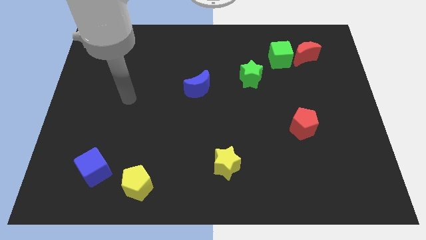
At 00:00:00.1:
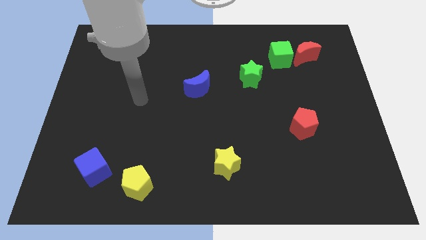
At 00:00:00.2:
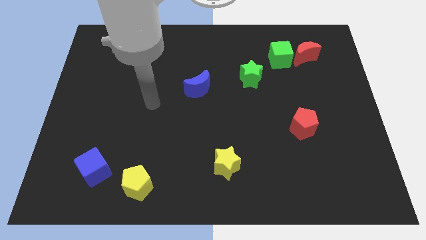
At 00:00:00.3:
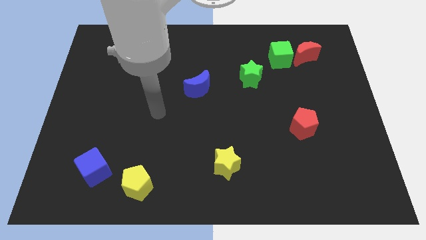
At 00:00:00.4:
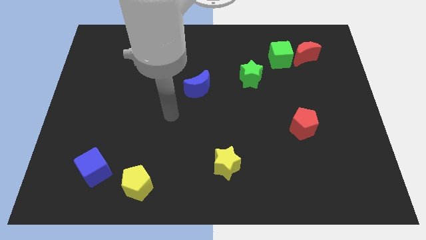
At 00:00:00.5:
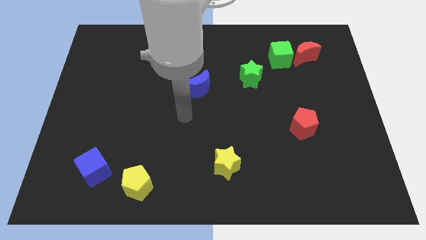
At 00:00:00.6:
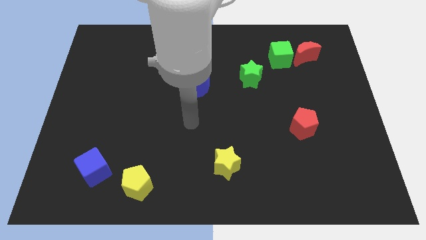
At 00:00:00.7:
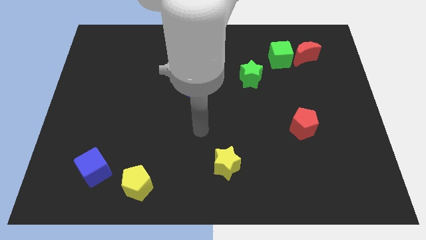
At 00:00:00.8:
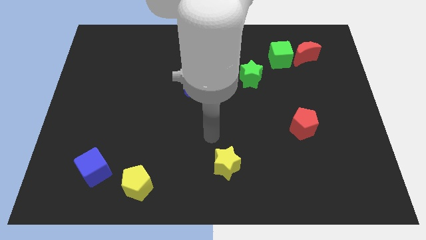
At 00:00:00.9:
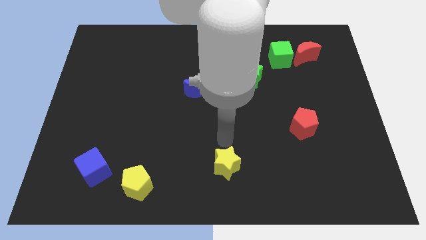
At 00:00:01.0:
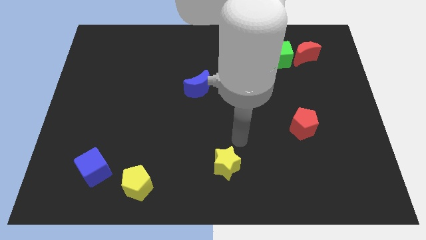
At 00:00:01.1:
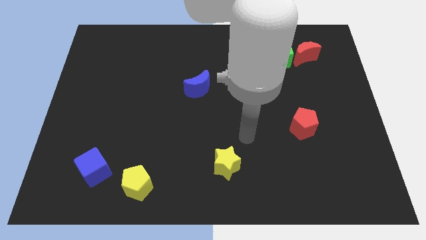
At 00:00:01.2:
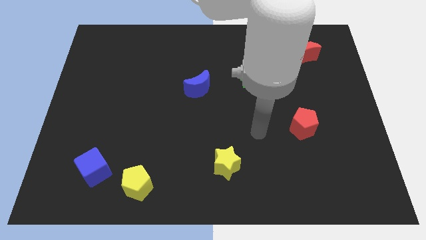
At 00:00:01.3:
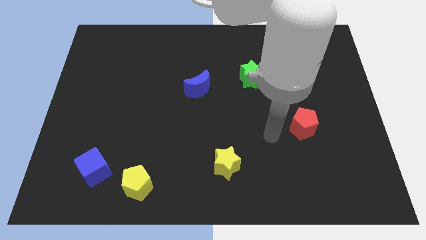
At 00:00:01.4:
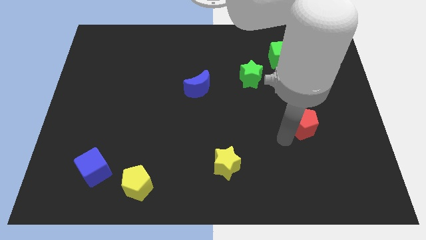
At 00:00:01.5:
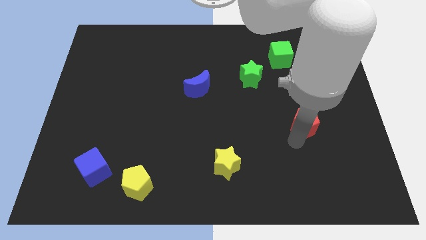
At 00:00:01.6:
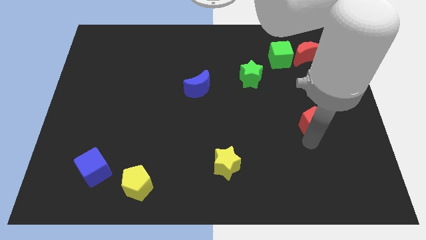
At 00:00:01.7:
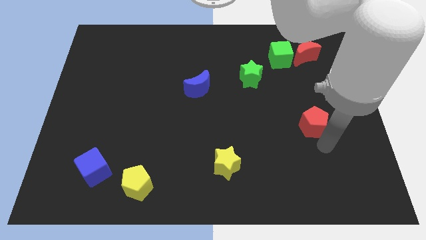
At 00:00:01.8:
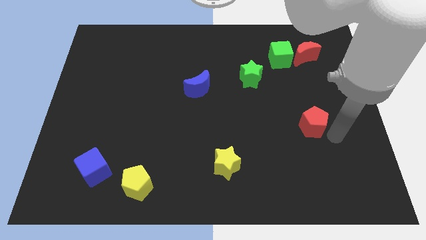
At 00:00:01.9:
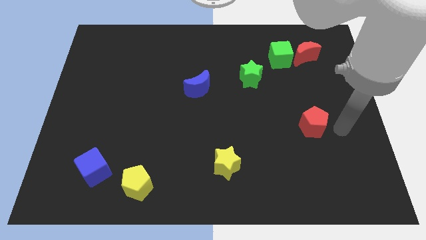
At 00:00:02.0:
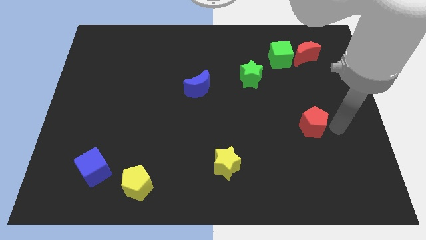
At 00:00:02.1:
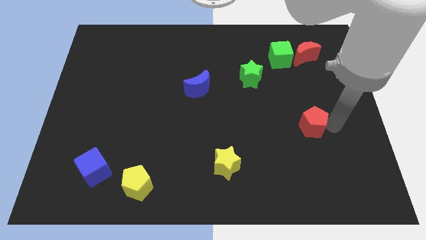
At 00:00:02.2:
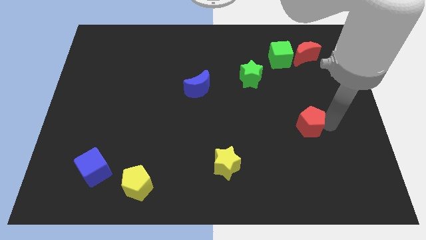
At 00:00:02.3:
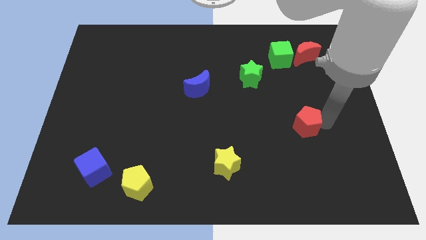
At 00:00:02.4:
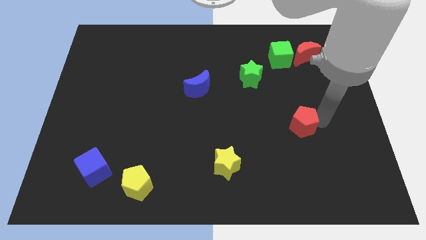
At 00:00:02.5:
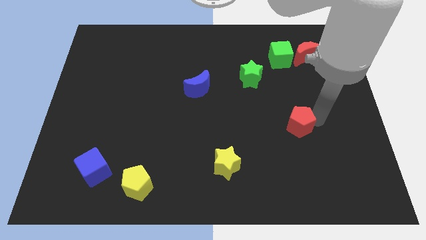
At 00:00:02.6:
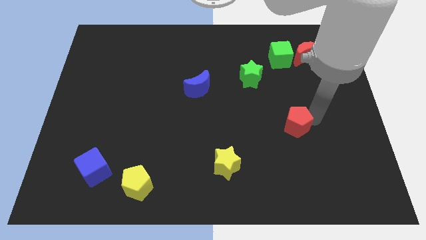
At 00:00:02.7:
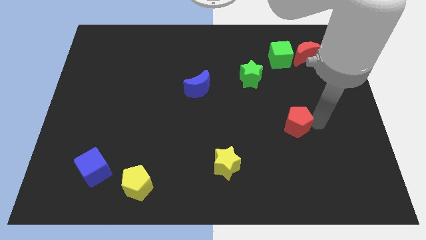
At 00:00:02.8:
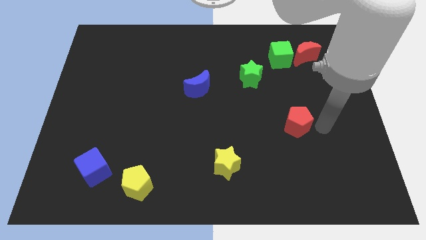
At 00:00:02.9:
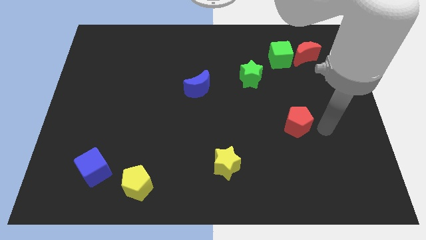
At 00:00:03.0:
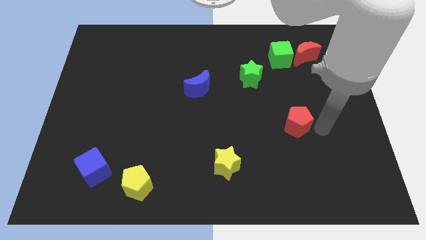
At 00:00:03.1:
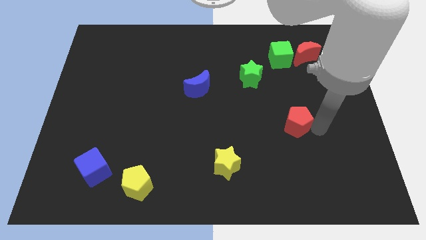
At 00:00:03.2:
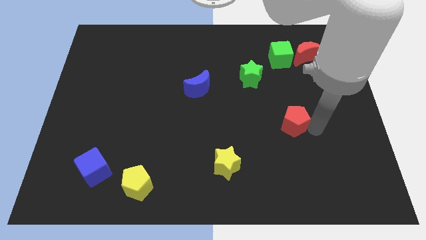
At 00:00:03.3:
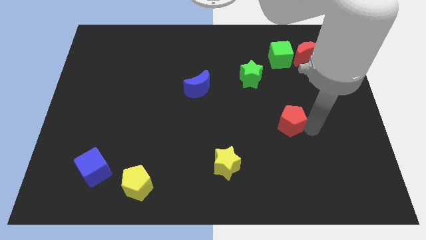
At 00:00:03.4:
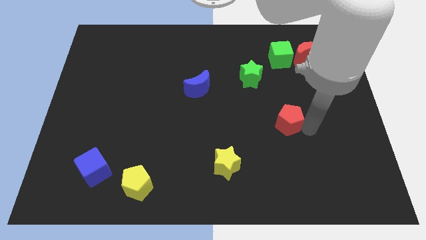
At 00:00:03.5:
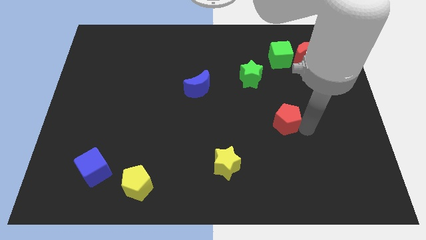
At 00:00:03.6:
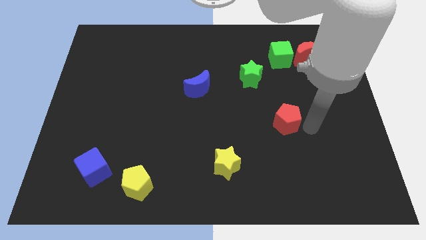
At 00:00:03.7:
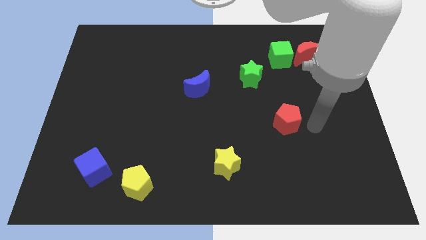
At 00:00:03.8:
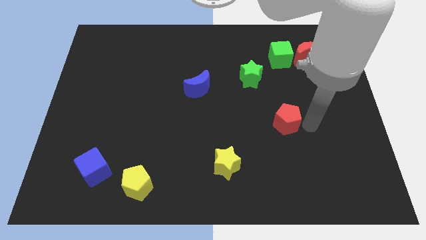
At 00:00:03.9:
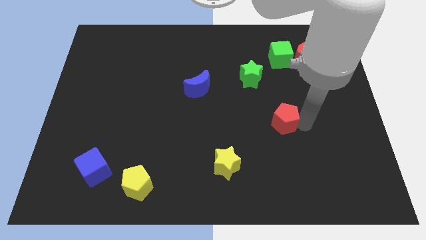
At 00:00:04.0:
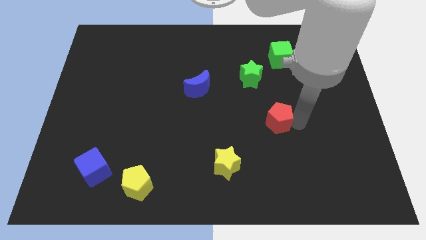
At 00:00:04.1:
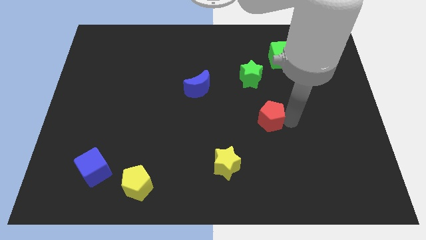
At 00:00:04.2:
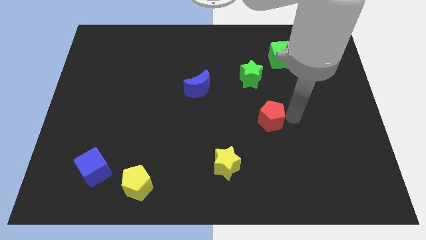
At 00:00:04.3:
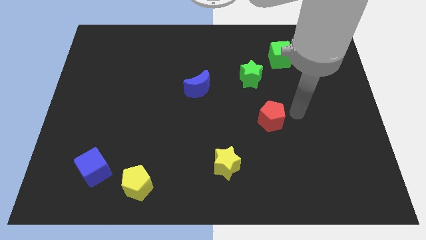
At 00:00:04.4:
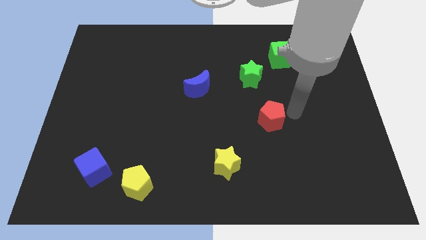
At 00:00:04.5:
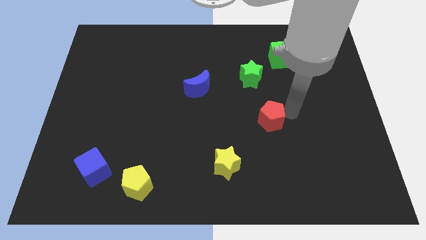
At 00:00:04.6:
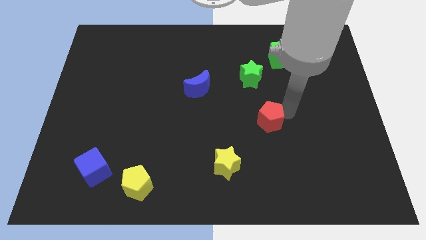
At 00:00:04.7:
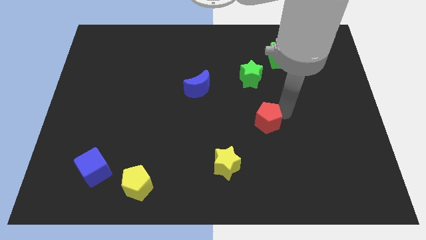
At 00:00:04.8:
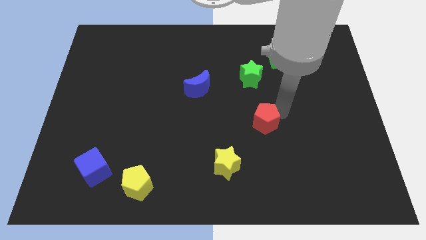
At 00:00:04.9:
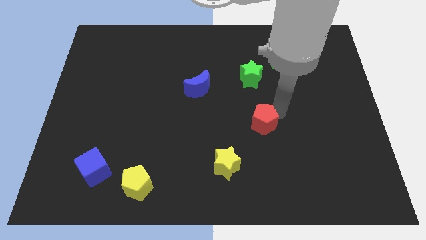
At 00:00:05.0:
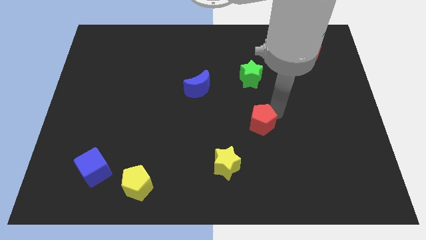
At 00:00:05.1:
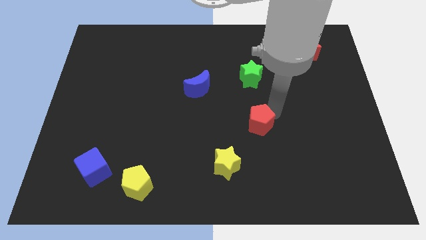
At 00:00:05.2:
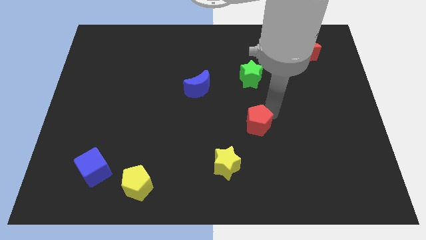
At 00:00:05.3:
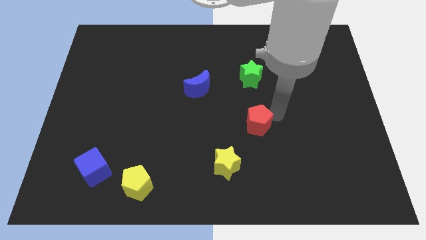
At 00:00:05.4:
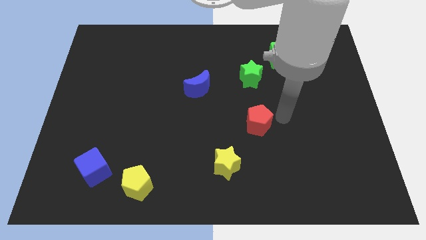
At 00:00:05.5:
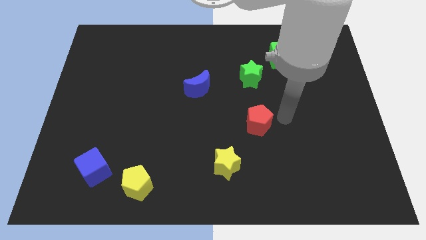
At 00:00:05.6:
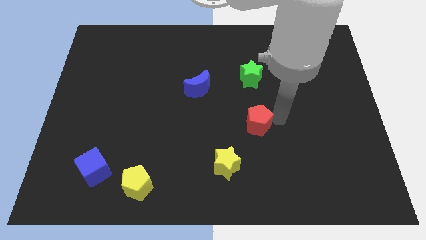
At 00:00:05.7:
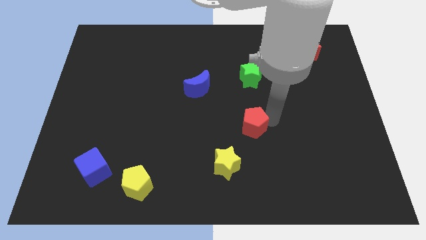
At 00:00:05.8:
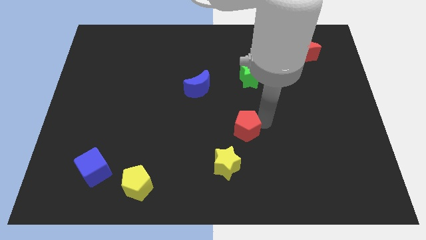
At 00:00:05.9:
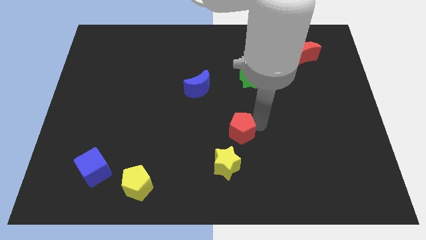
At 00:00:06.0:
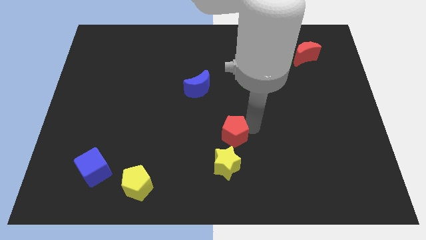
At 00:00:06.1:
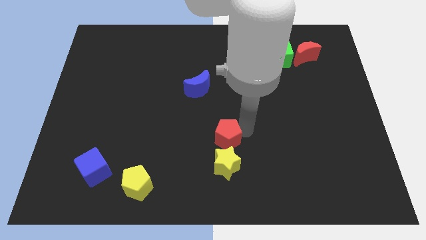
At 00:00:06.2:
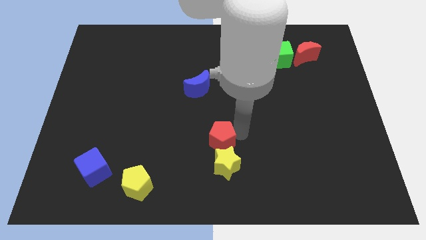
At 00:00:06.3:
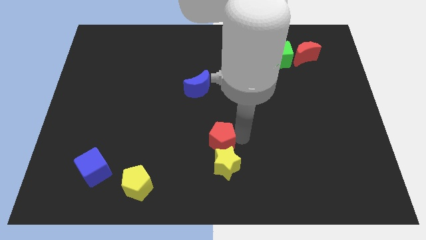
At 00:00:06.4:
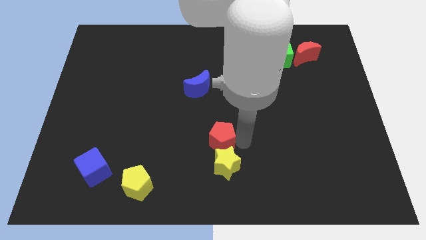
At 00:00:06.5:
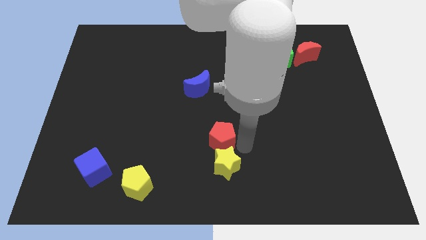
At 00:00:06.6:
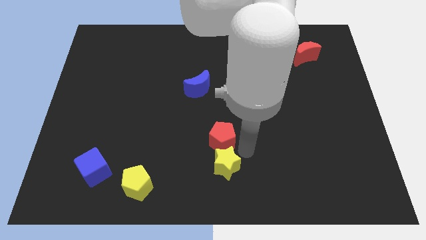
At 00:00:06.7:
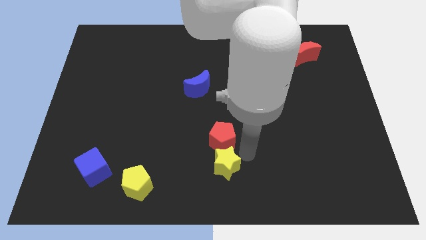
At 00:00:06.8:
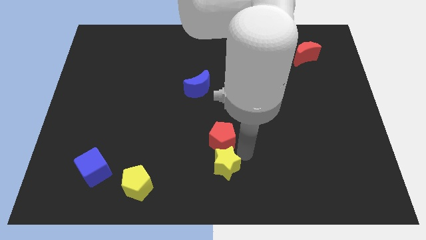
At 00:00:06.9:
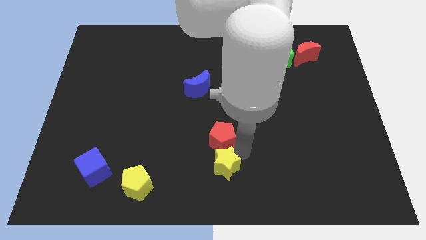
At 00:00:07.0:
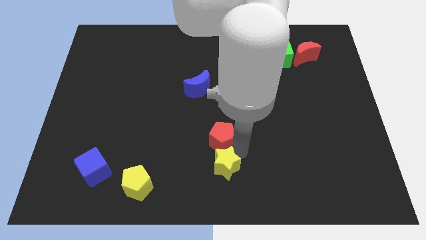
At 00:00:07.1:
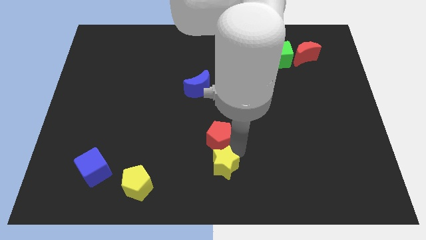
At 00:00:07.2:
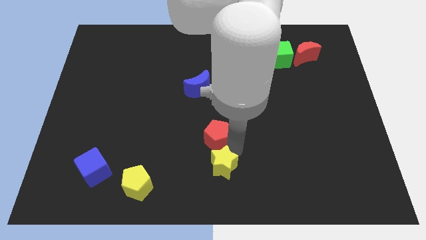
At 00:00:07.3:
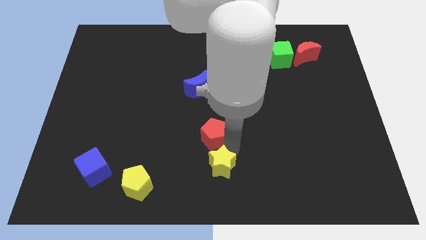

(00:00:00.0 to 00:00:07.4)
move the red pentagon left

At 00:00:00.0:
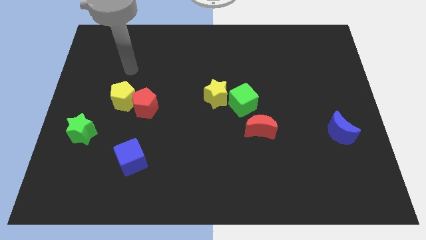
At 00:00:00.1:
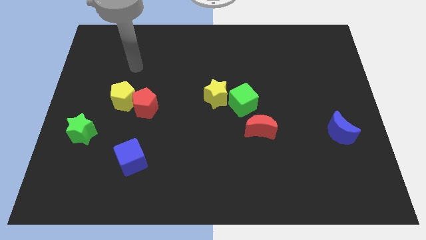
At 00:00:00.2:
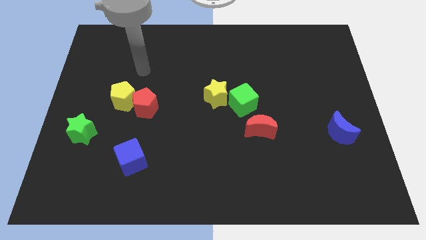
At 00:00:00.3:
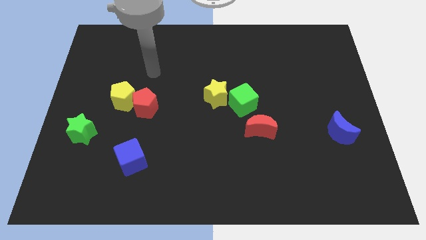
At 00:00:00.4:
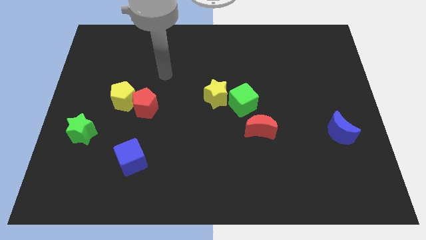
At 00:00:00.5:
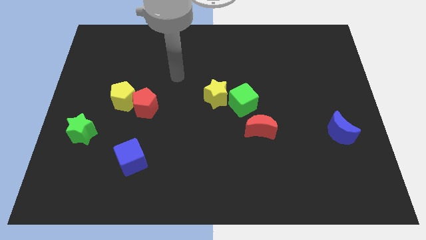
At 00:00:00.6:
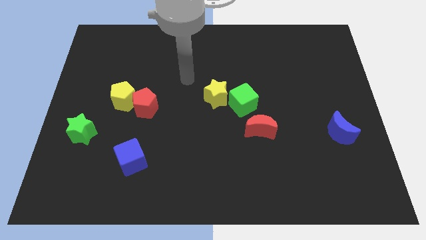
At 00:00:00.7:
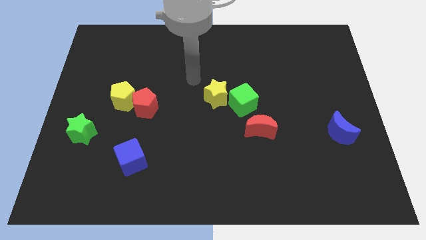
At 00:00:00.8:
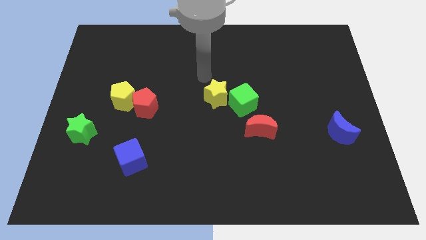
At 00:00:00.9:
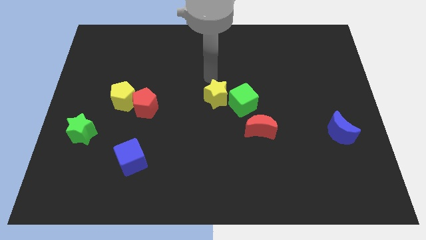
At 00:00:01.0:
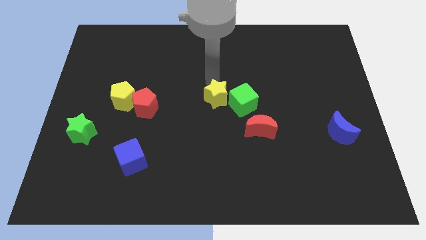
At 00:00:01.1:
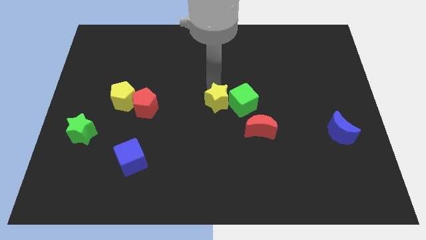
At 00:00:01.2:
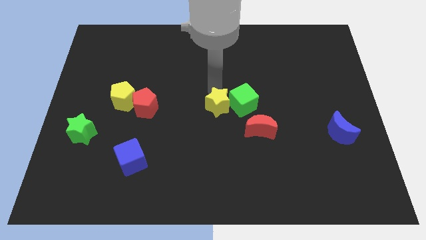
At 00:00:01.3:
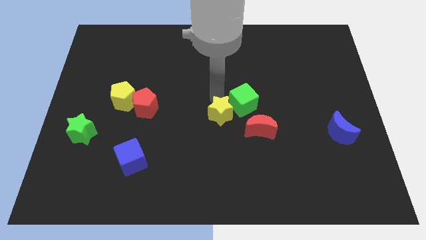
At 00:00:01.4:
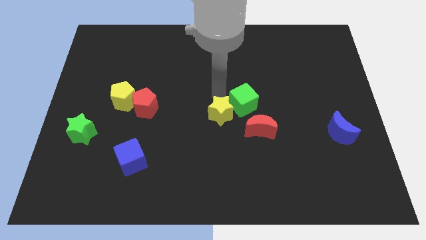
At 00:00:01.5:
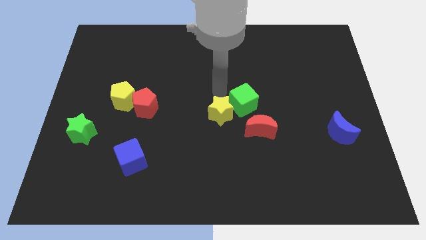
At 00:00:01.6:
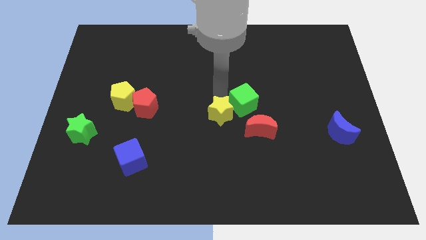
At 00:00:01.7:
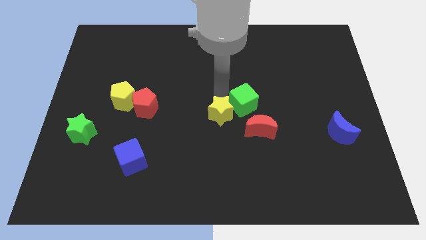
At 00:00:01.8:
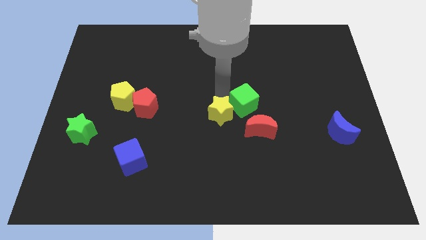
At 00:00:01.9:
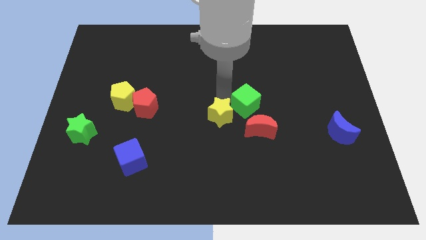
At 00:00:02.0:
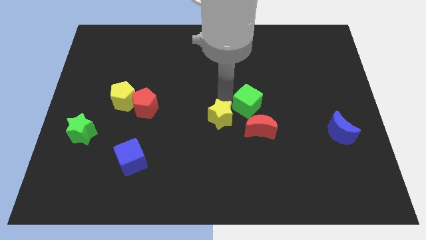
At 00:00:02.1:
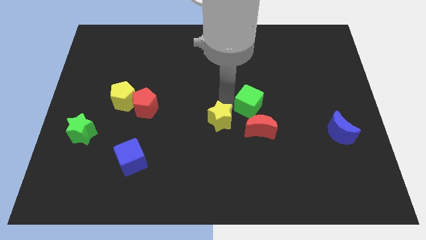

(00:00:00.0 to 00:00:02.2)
slide the yellow star down a bit
